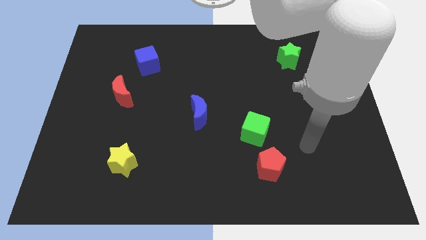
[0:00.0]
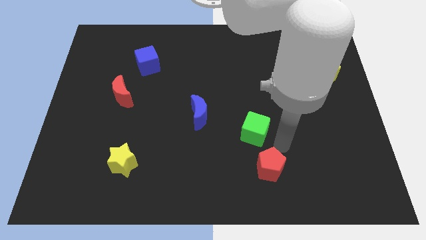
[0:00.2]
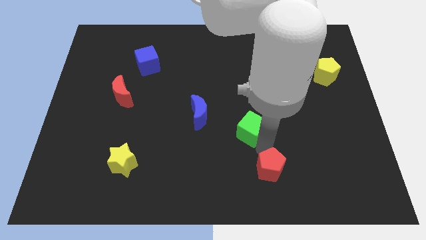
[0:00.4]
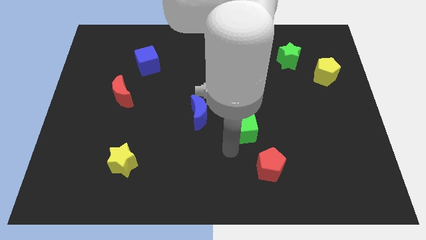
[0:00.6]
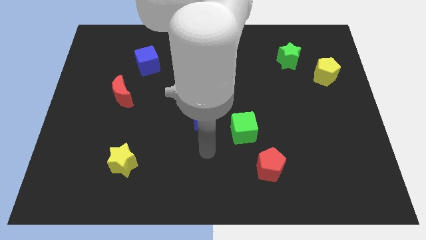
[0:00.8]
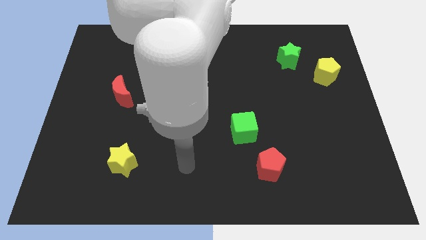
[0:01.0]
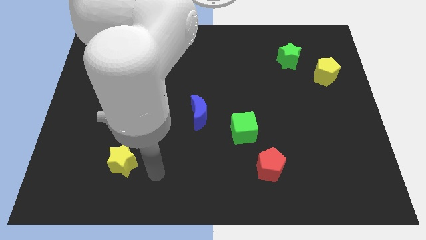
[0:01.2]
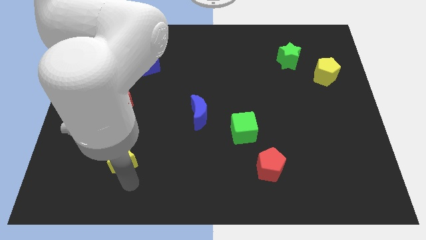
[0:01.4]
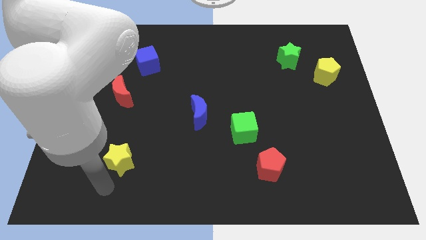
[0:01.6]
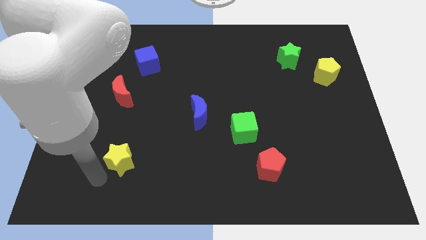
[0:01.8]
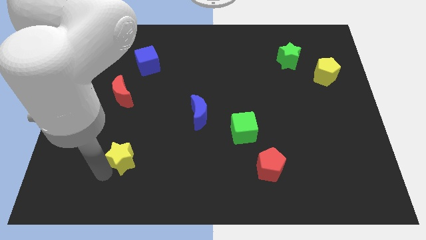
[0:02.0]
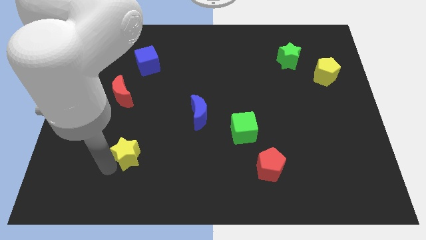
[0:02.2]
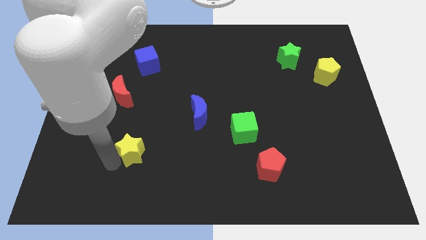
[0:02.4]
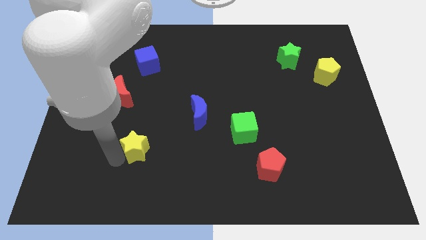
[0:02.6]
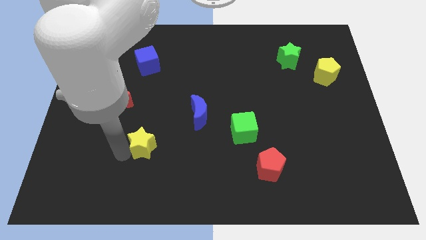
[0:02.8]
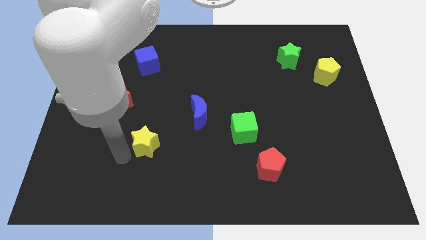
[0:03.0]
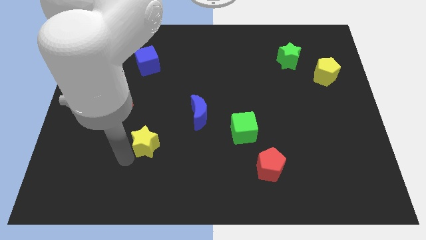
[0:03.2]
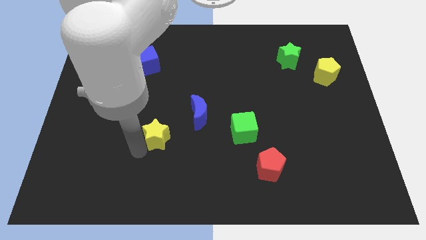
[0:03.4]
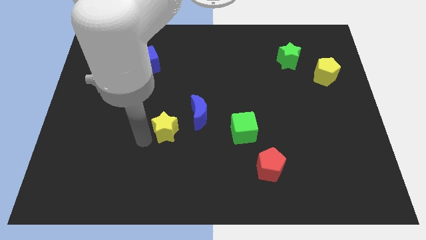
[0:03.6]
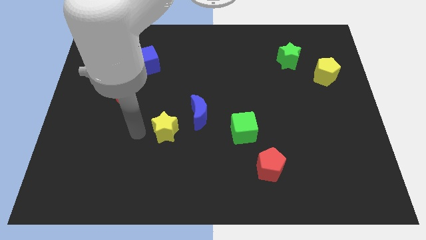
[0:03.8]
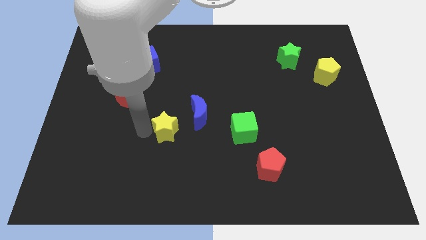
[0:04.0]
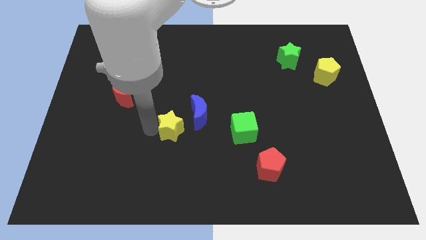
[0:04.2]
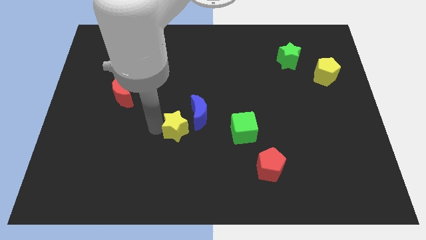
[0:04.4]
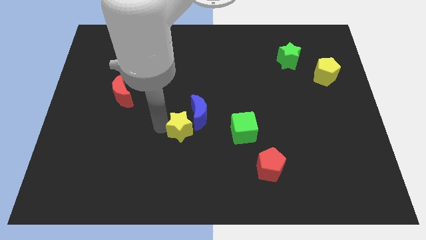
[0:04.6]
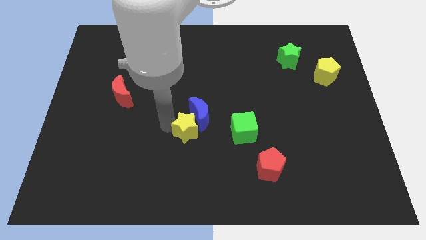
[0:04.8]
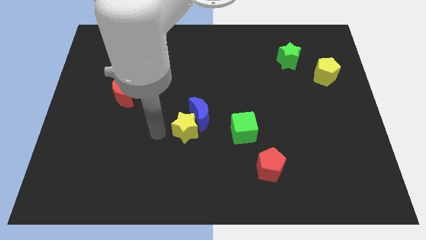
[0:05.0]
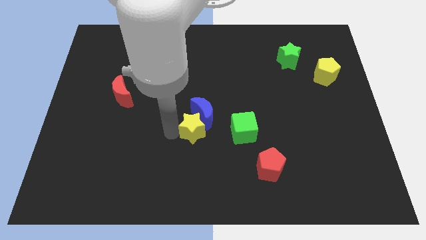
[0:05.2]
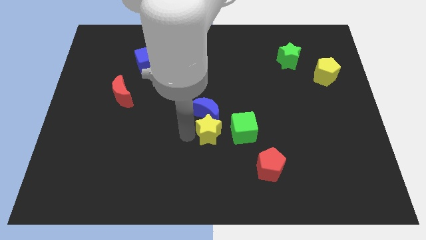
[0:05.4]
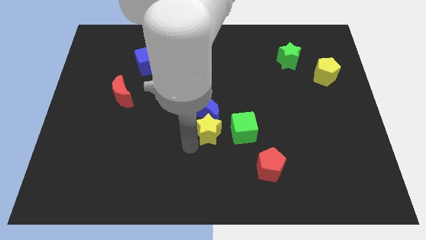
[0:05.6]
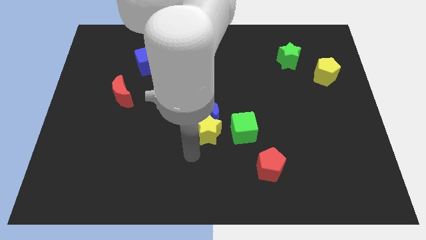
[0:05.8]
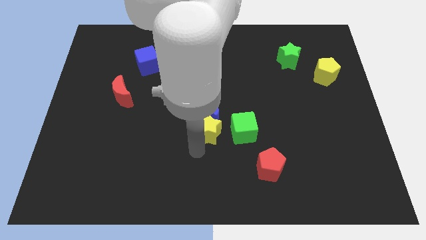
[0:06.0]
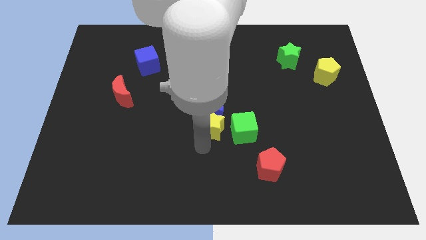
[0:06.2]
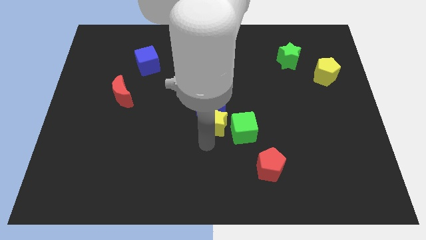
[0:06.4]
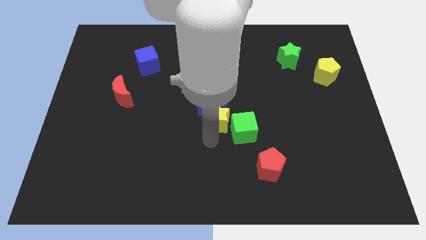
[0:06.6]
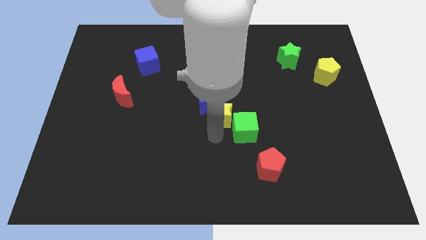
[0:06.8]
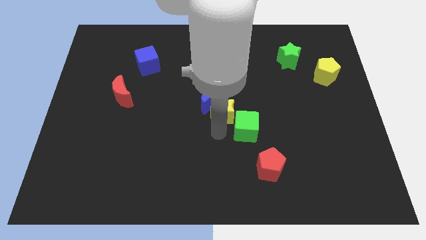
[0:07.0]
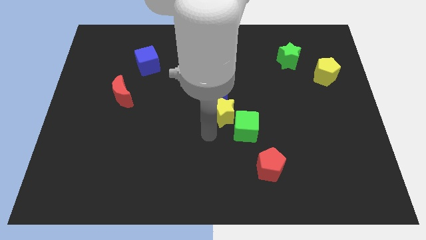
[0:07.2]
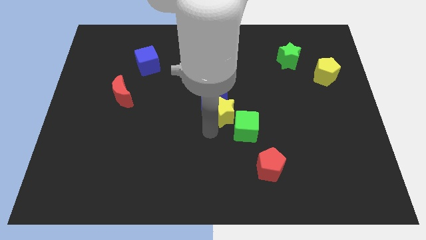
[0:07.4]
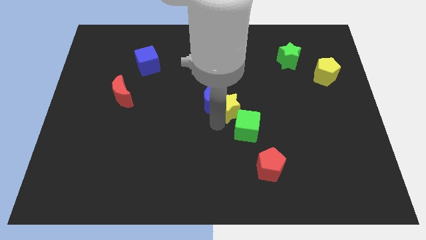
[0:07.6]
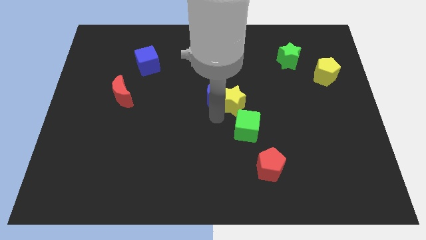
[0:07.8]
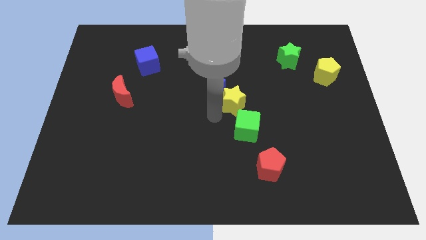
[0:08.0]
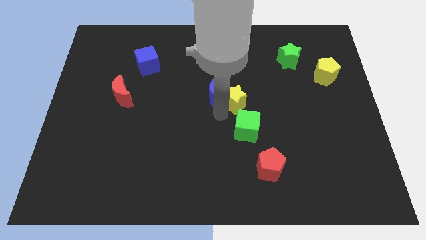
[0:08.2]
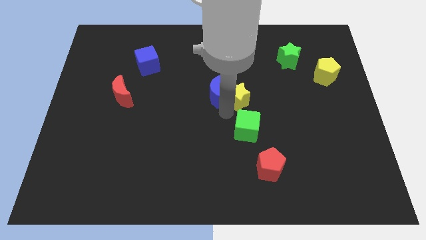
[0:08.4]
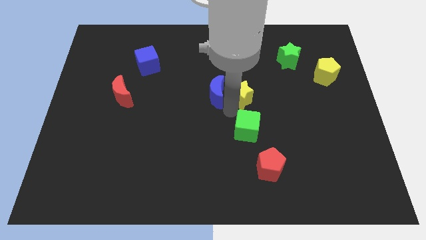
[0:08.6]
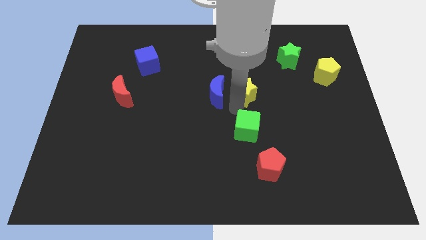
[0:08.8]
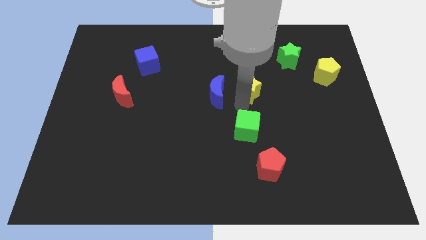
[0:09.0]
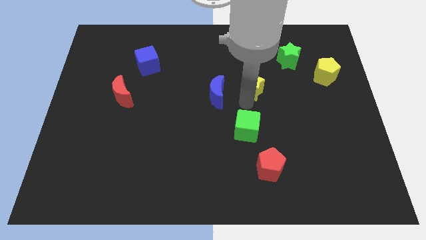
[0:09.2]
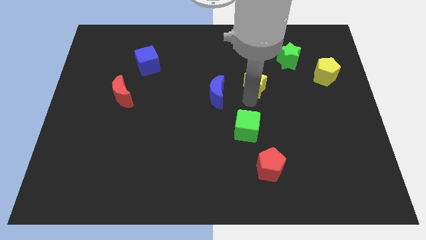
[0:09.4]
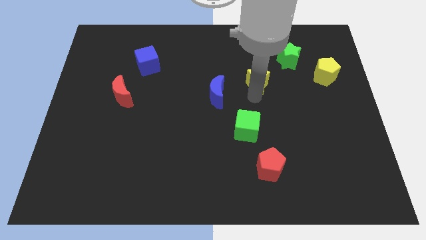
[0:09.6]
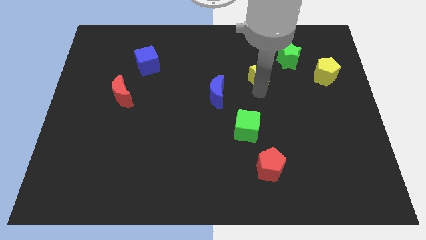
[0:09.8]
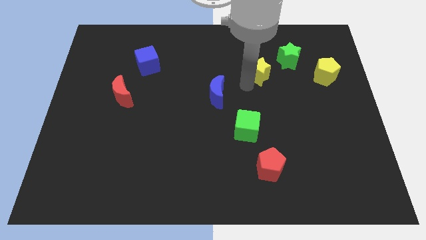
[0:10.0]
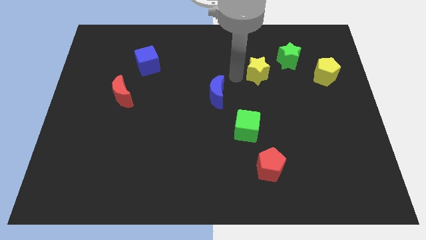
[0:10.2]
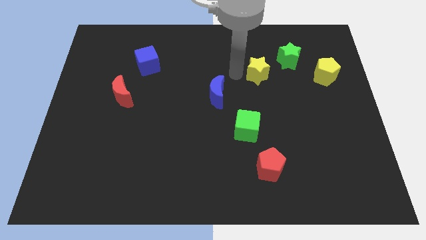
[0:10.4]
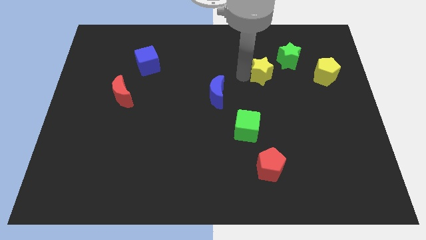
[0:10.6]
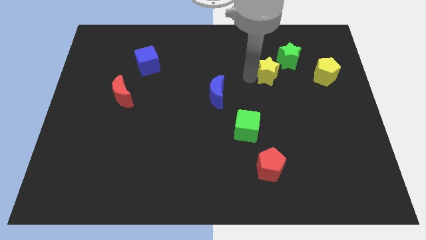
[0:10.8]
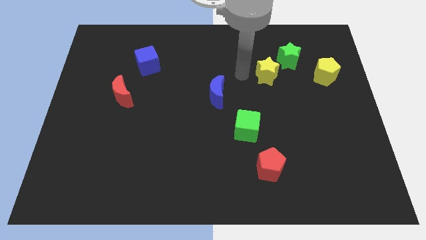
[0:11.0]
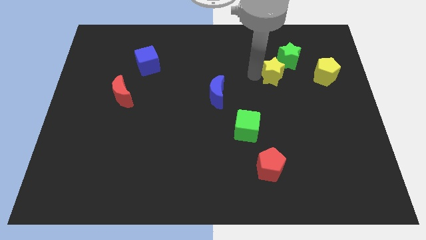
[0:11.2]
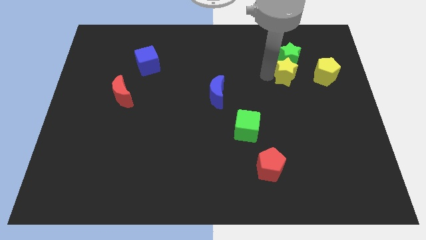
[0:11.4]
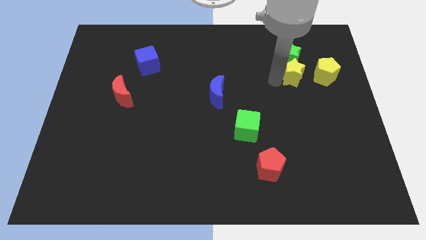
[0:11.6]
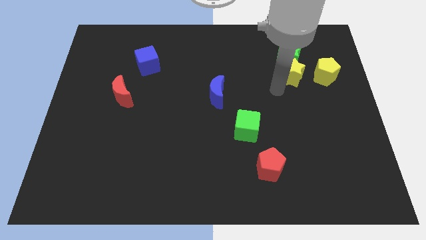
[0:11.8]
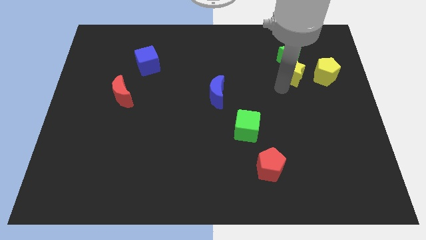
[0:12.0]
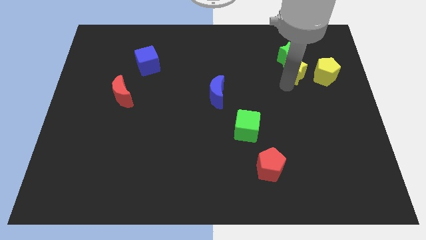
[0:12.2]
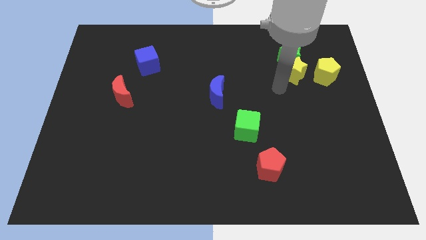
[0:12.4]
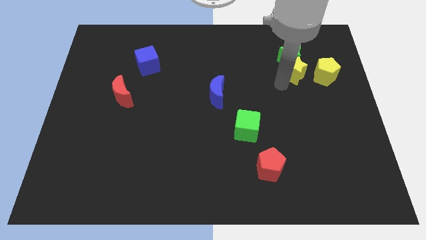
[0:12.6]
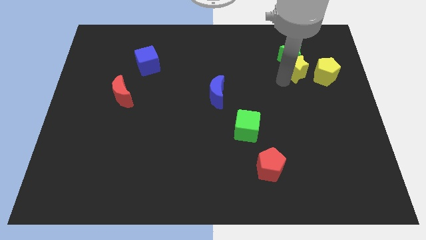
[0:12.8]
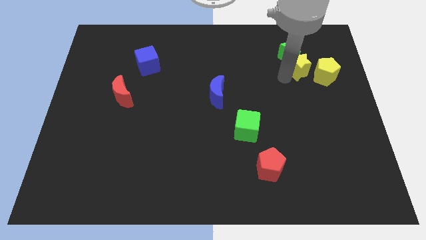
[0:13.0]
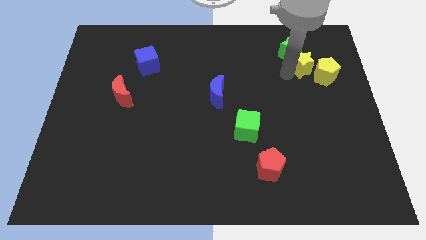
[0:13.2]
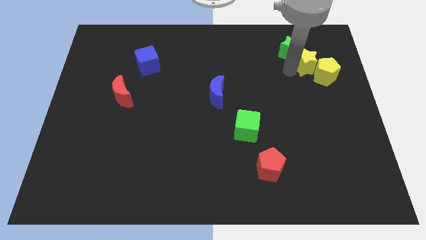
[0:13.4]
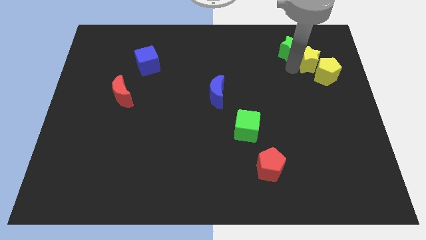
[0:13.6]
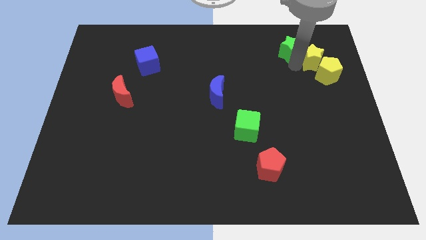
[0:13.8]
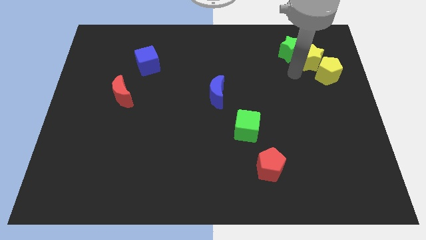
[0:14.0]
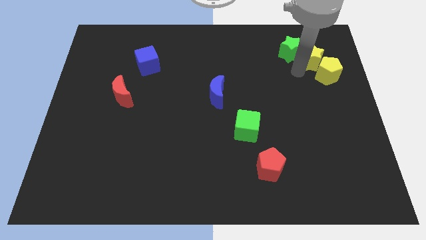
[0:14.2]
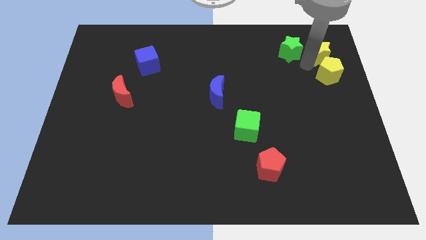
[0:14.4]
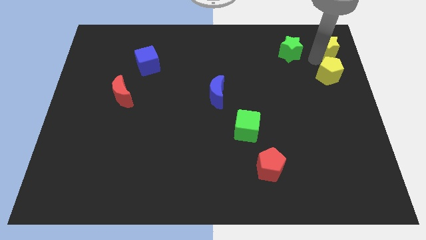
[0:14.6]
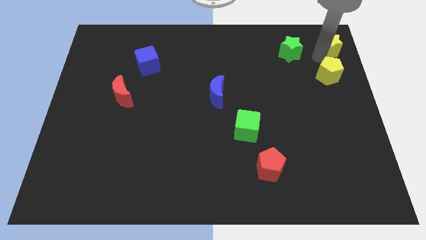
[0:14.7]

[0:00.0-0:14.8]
put the yellow star to the upper right corner
